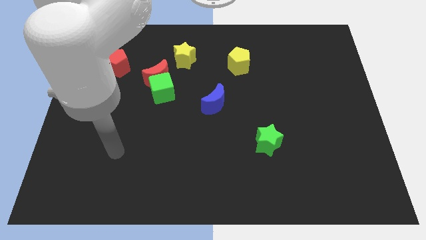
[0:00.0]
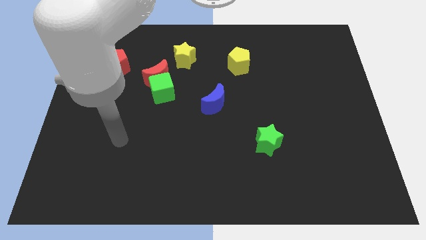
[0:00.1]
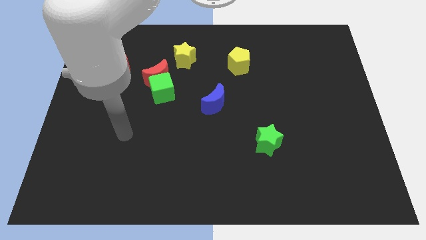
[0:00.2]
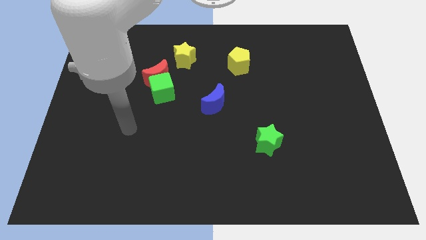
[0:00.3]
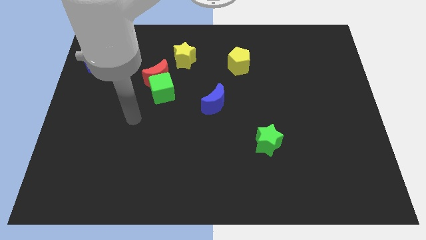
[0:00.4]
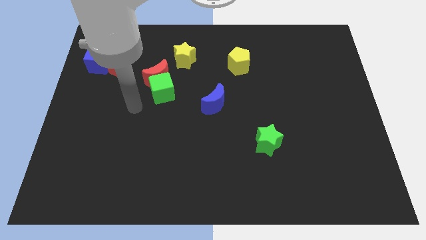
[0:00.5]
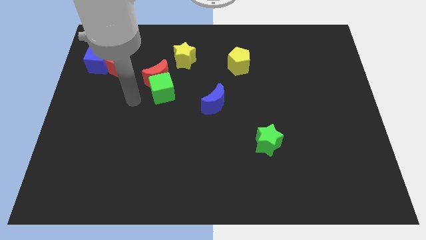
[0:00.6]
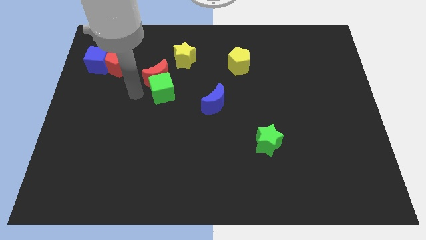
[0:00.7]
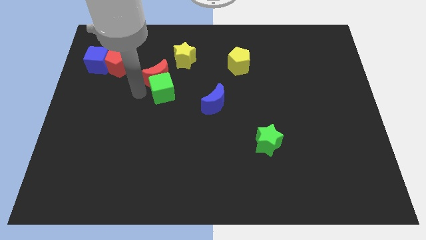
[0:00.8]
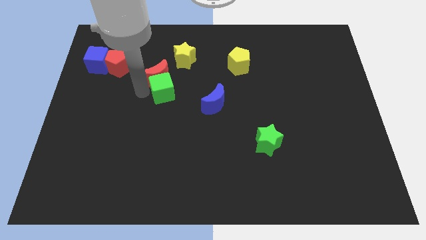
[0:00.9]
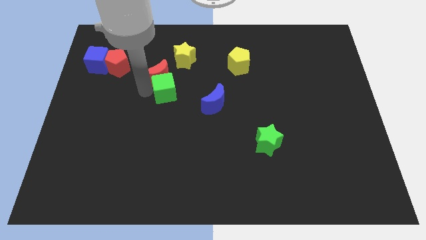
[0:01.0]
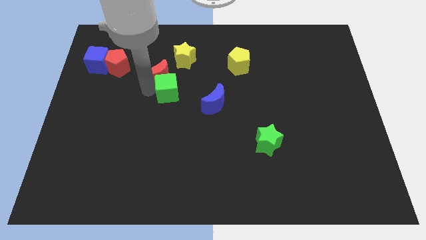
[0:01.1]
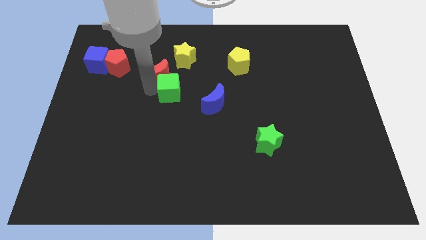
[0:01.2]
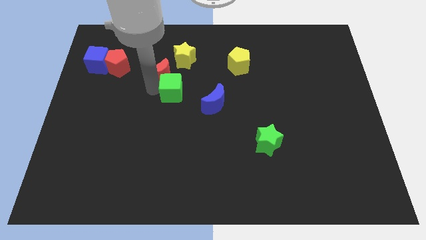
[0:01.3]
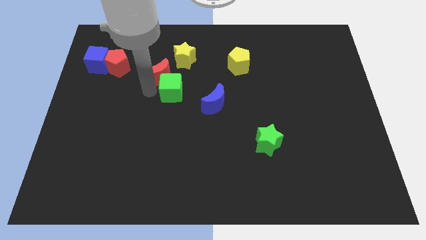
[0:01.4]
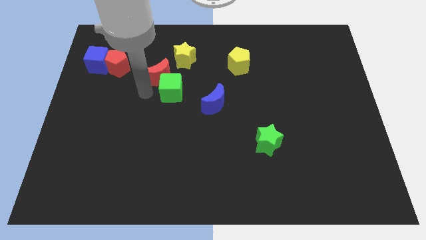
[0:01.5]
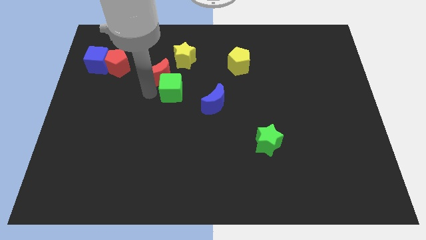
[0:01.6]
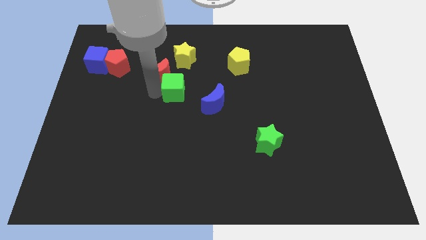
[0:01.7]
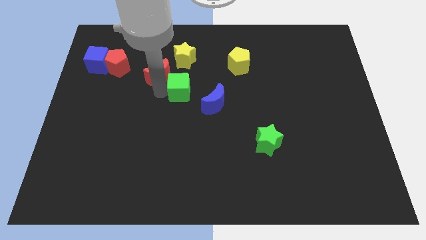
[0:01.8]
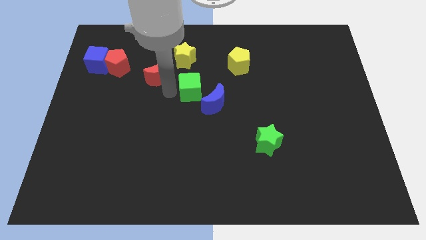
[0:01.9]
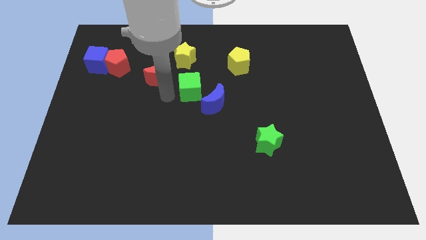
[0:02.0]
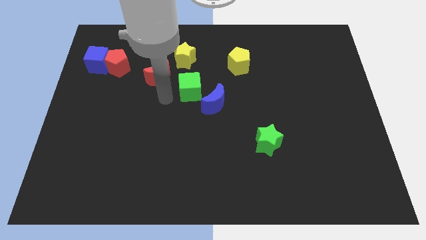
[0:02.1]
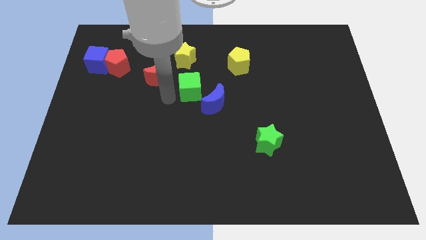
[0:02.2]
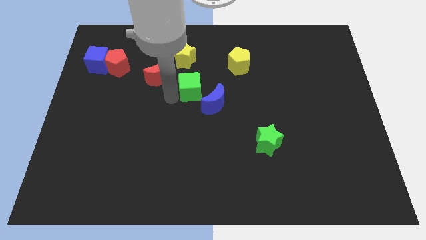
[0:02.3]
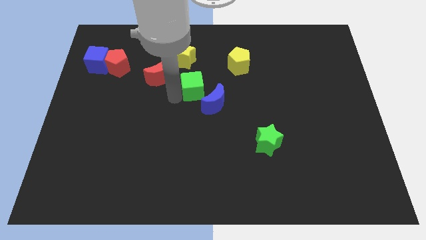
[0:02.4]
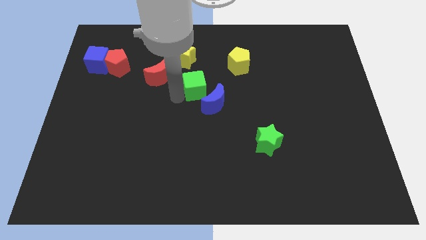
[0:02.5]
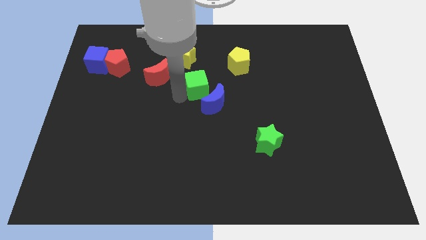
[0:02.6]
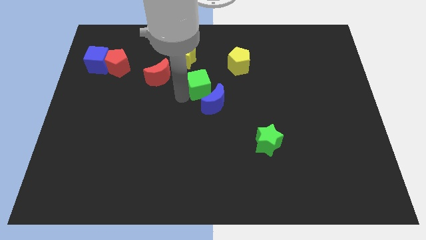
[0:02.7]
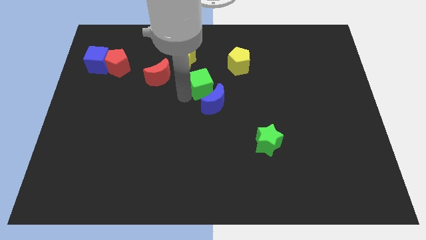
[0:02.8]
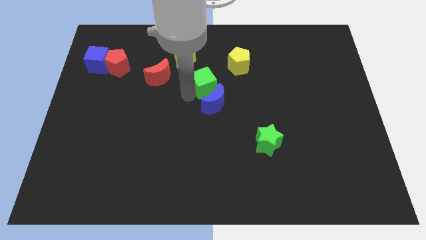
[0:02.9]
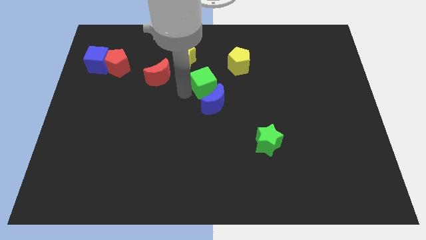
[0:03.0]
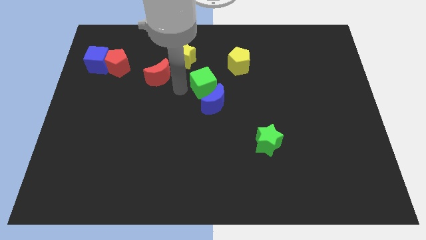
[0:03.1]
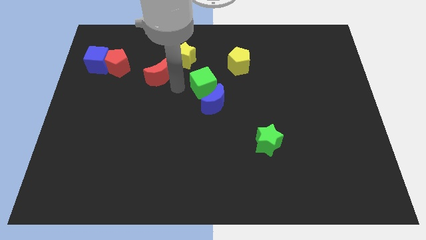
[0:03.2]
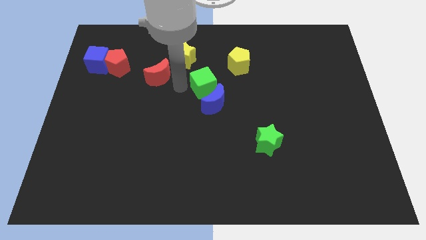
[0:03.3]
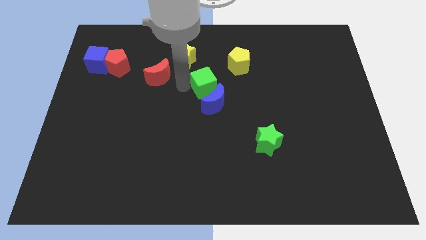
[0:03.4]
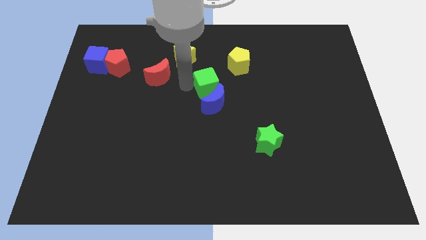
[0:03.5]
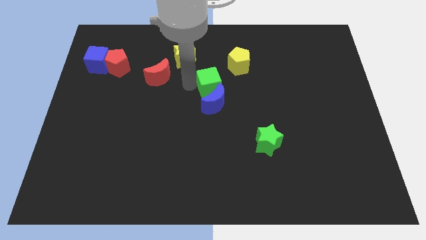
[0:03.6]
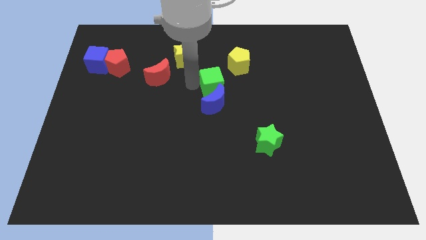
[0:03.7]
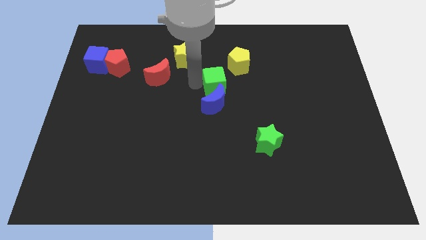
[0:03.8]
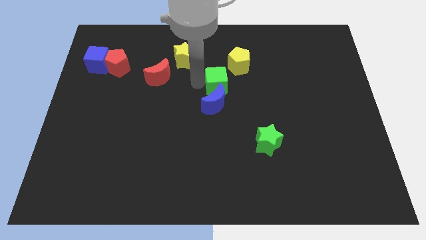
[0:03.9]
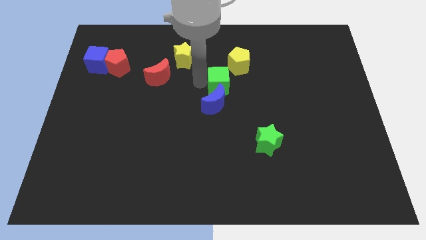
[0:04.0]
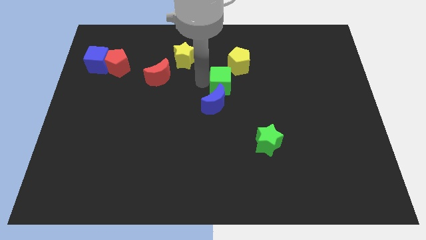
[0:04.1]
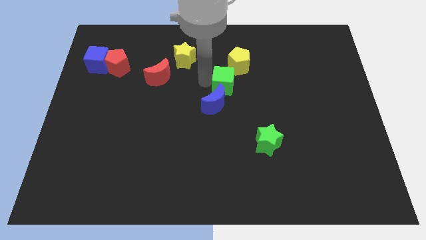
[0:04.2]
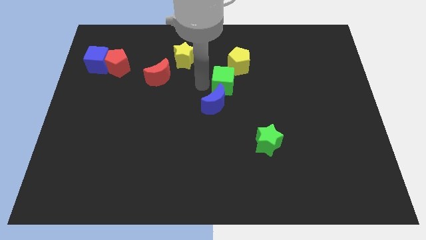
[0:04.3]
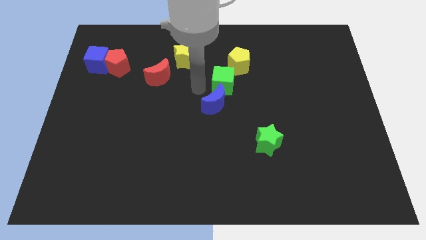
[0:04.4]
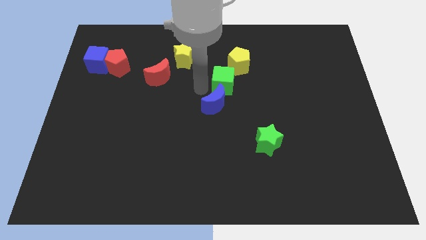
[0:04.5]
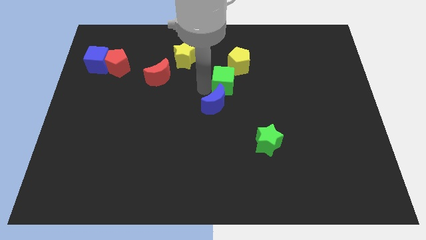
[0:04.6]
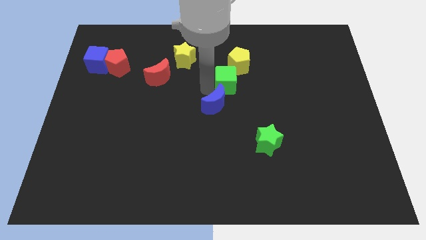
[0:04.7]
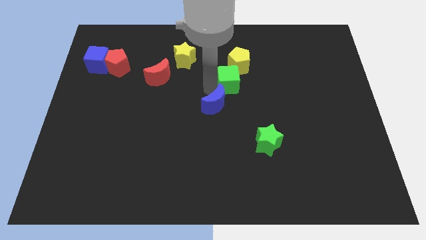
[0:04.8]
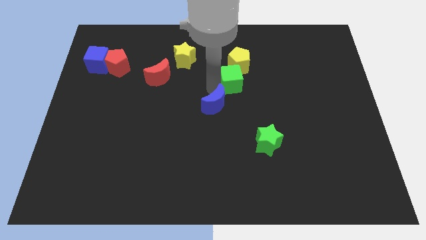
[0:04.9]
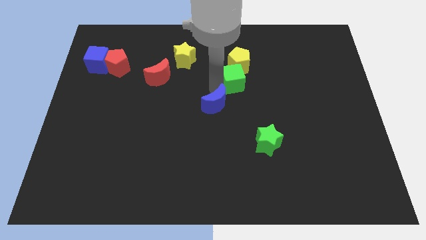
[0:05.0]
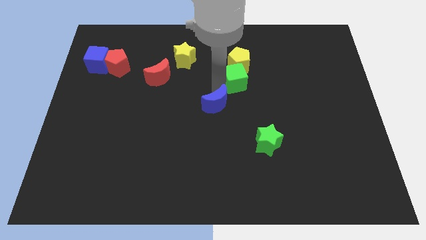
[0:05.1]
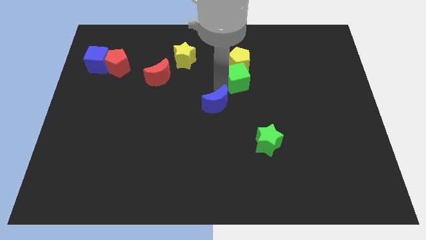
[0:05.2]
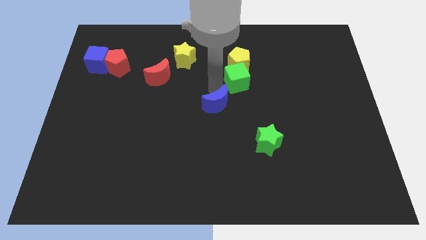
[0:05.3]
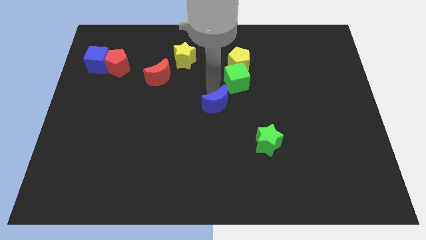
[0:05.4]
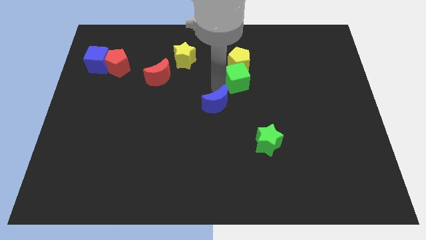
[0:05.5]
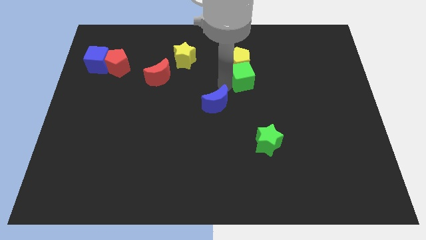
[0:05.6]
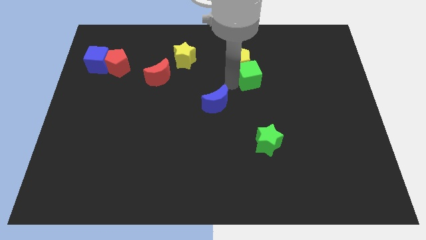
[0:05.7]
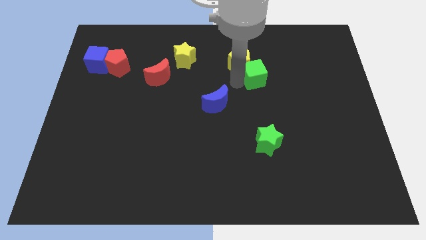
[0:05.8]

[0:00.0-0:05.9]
put the green cube just right of the yellow pentagon

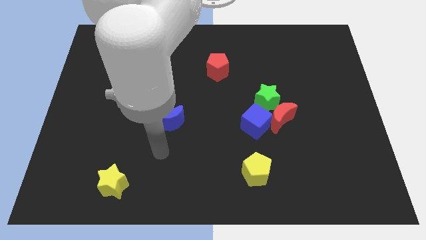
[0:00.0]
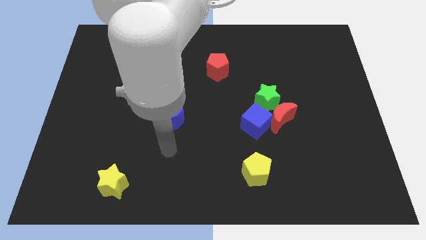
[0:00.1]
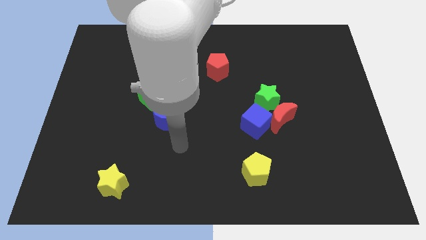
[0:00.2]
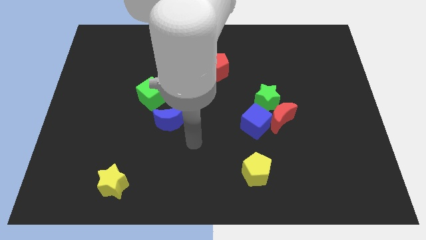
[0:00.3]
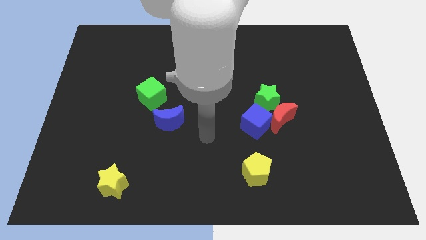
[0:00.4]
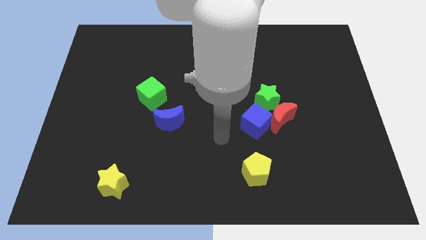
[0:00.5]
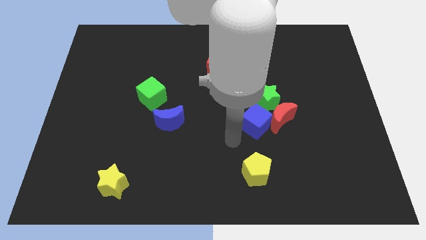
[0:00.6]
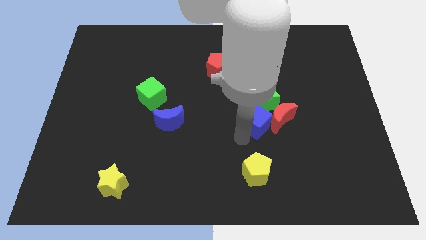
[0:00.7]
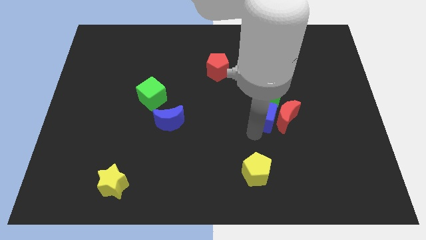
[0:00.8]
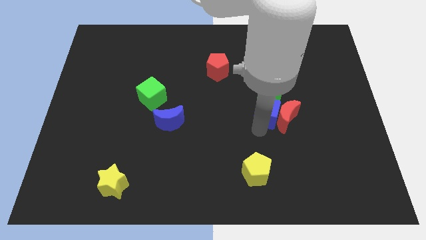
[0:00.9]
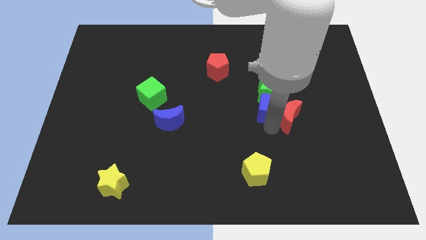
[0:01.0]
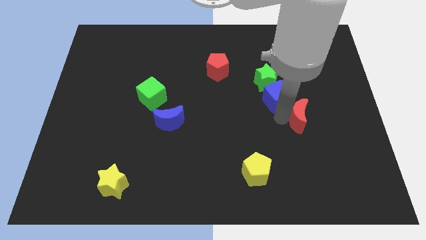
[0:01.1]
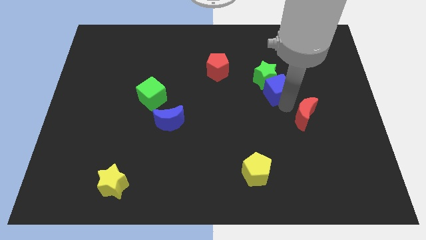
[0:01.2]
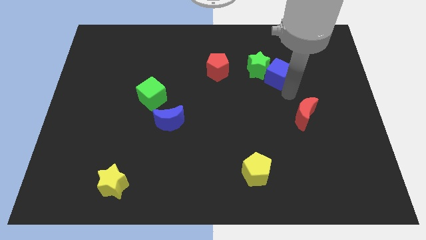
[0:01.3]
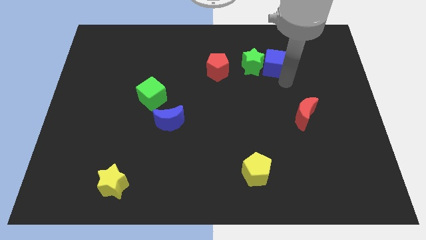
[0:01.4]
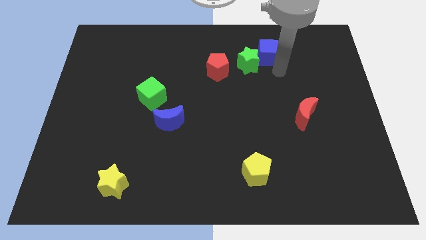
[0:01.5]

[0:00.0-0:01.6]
push the green star to the top right side of the red pentagon
